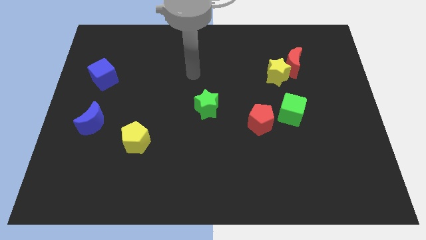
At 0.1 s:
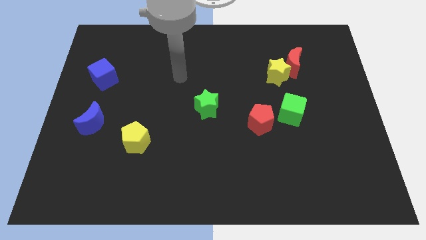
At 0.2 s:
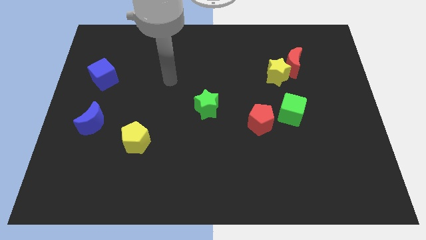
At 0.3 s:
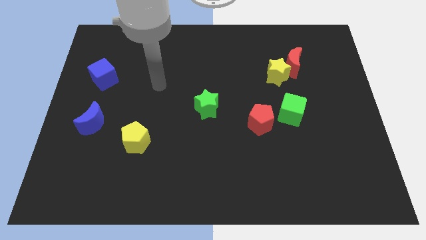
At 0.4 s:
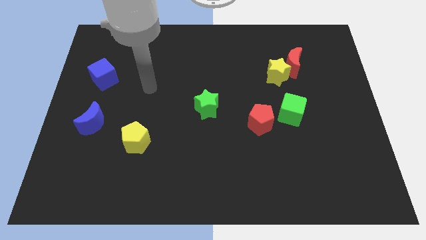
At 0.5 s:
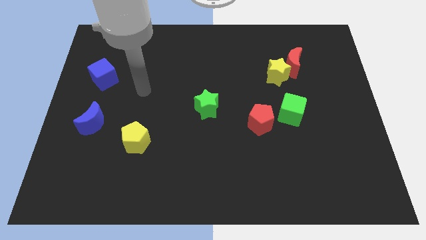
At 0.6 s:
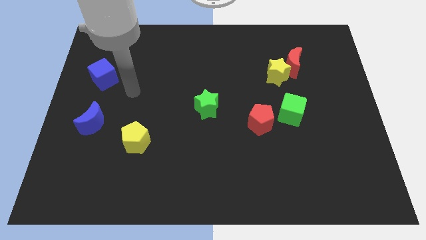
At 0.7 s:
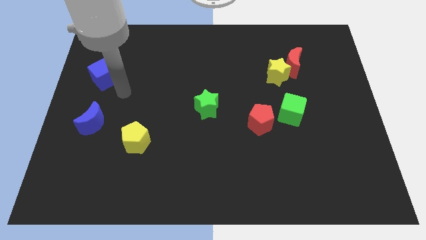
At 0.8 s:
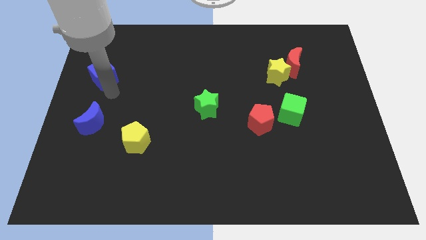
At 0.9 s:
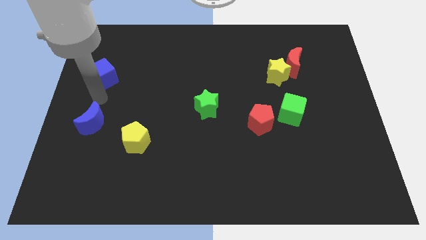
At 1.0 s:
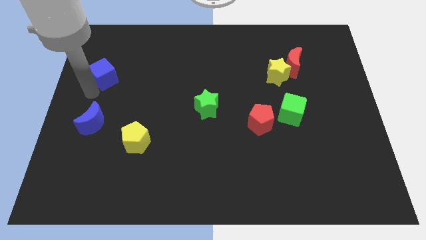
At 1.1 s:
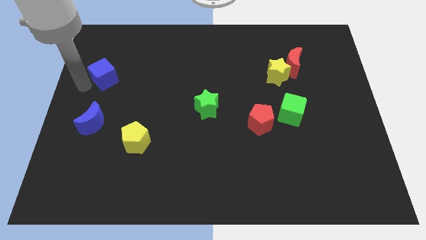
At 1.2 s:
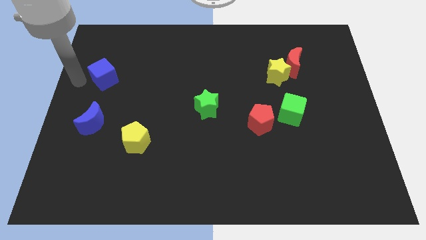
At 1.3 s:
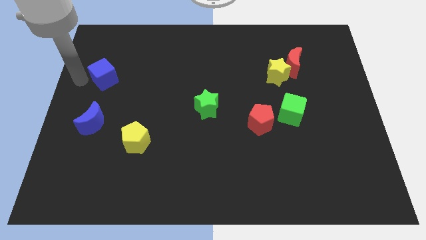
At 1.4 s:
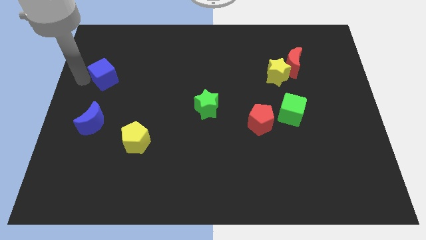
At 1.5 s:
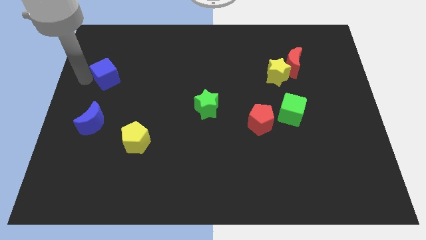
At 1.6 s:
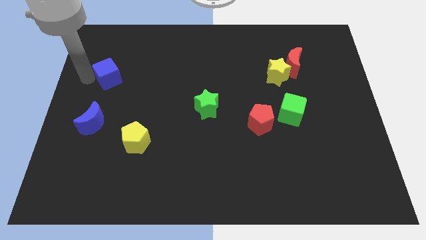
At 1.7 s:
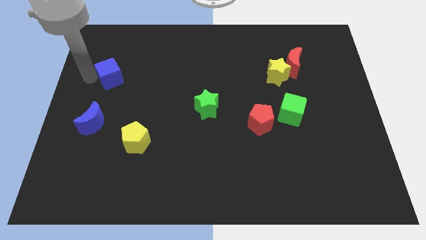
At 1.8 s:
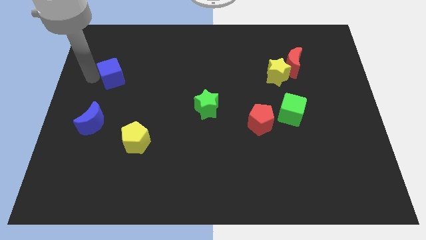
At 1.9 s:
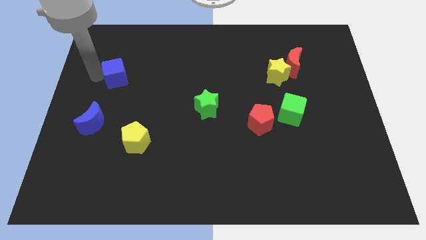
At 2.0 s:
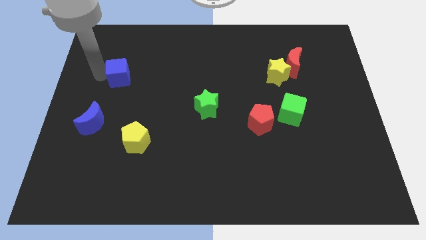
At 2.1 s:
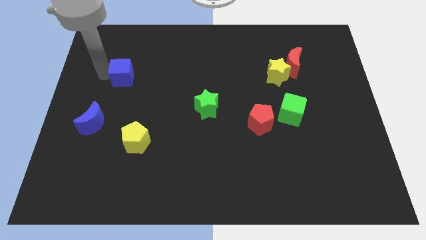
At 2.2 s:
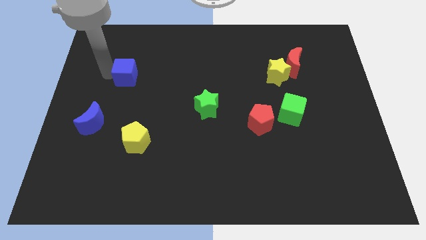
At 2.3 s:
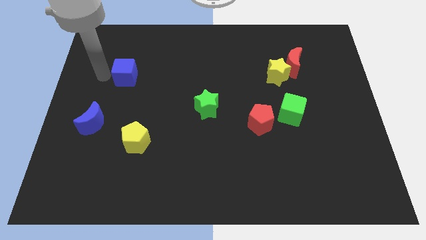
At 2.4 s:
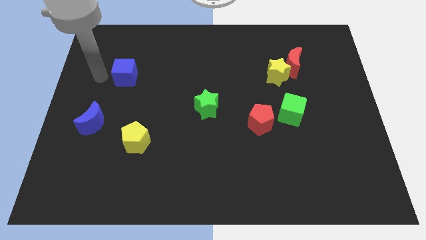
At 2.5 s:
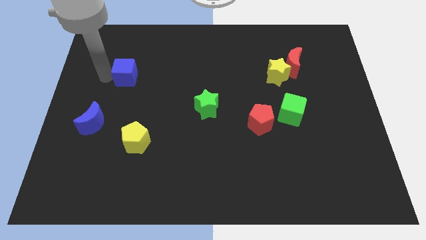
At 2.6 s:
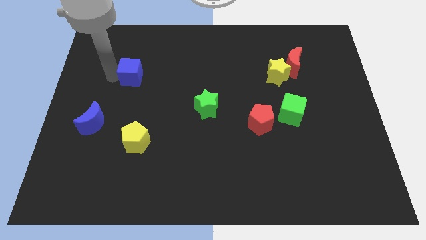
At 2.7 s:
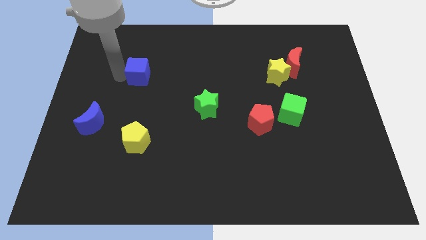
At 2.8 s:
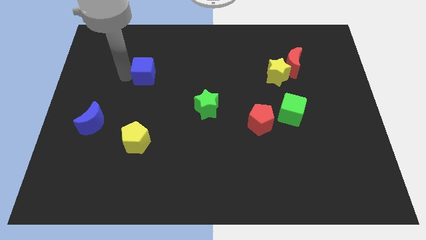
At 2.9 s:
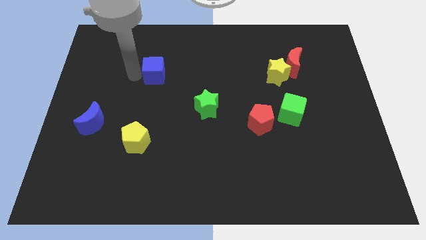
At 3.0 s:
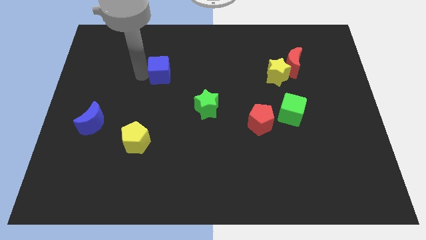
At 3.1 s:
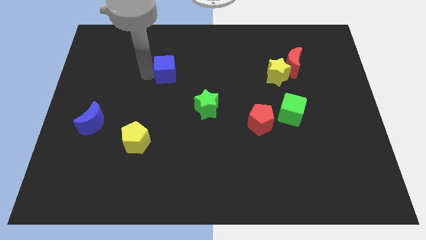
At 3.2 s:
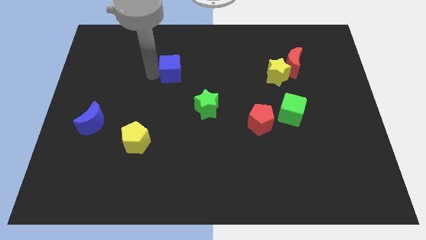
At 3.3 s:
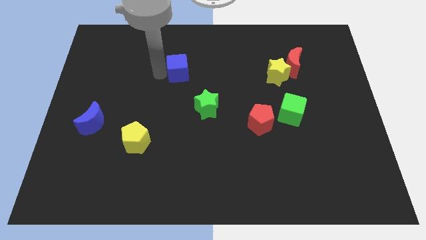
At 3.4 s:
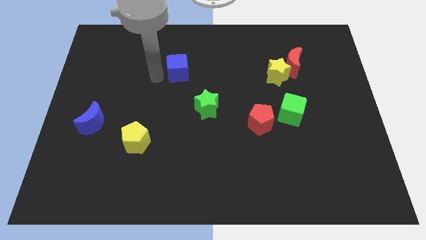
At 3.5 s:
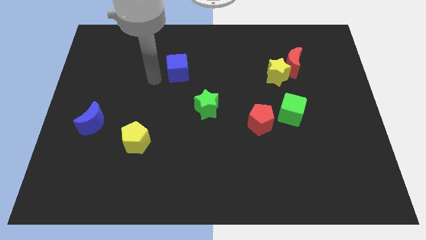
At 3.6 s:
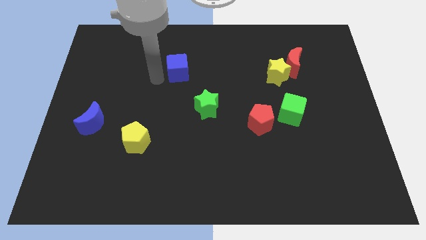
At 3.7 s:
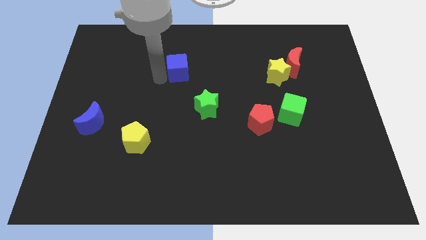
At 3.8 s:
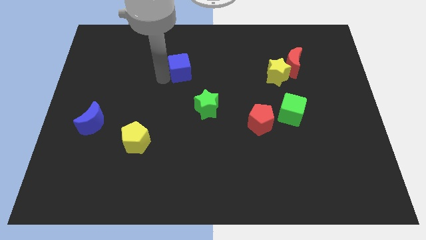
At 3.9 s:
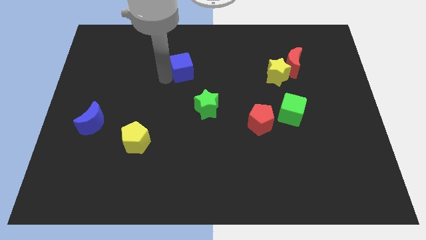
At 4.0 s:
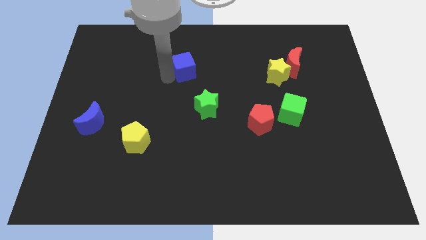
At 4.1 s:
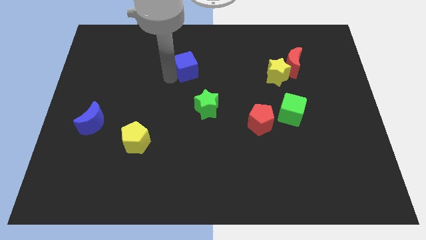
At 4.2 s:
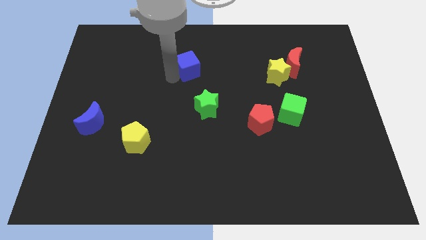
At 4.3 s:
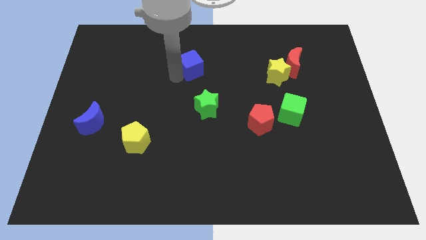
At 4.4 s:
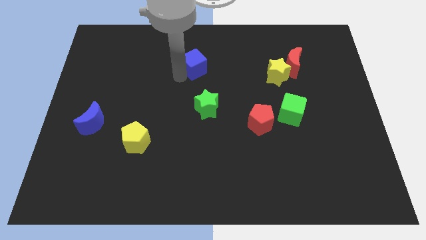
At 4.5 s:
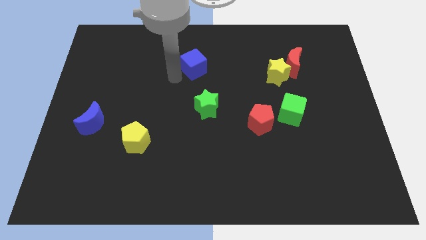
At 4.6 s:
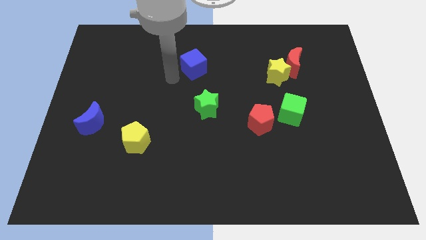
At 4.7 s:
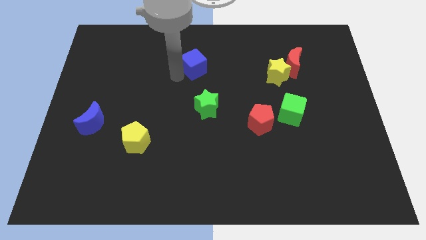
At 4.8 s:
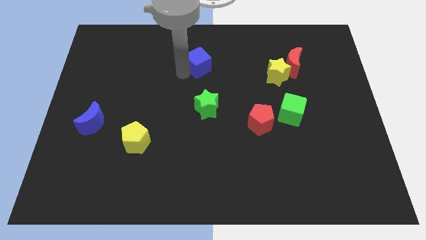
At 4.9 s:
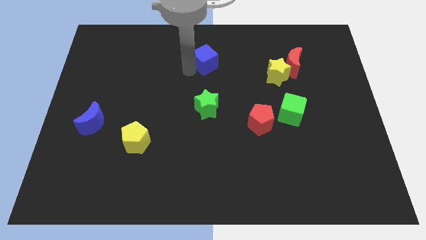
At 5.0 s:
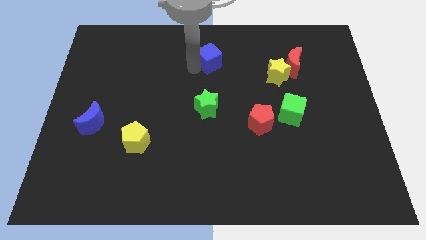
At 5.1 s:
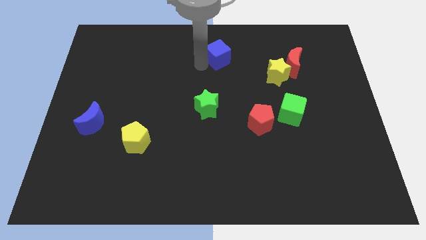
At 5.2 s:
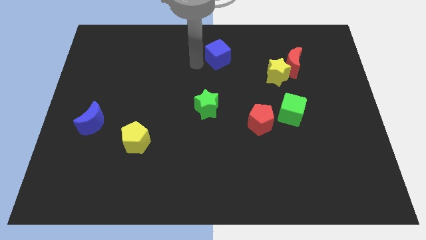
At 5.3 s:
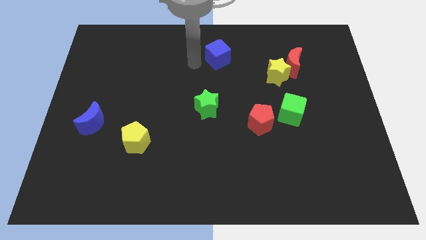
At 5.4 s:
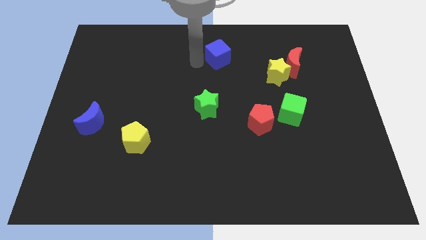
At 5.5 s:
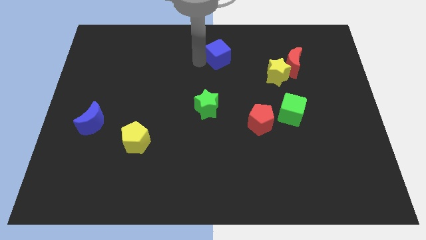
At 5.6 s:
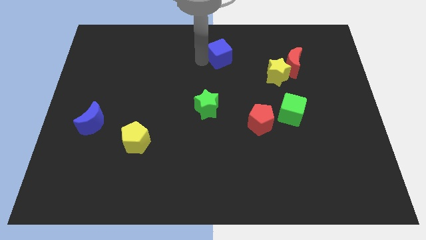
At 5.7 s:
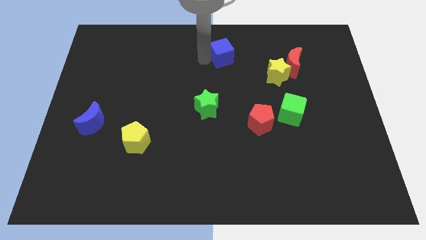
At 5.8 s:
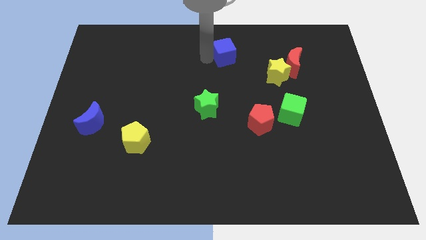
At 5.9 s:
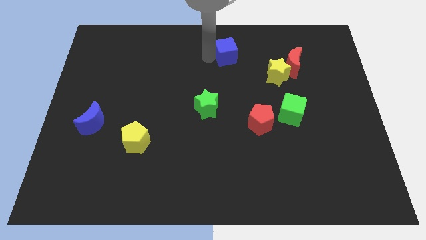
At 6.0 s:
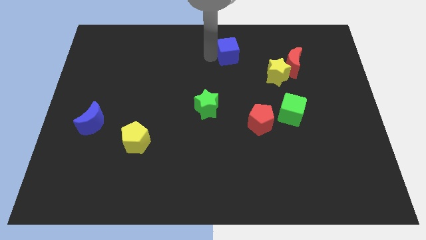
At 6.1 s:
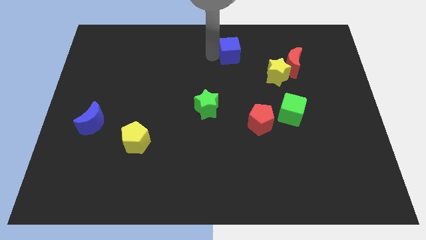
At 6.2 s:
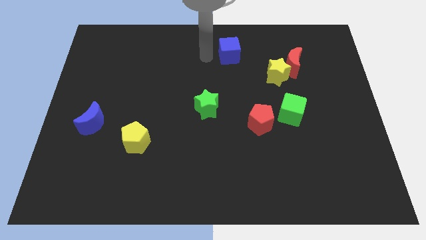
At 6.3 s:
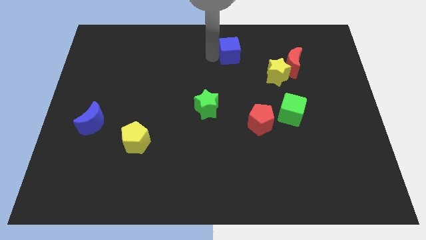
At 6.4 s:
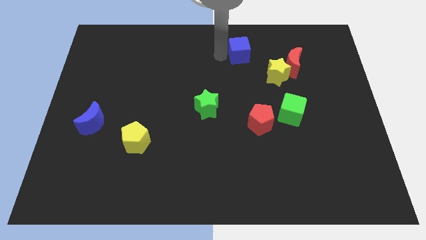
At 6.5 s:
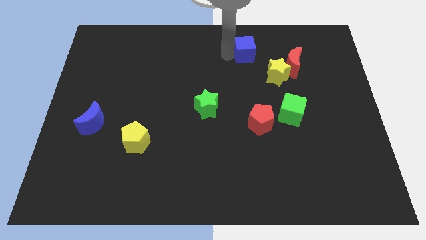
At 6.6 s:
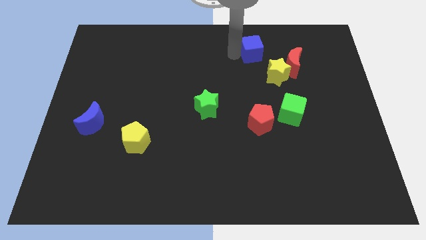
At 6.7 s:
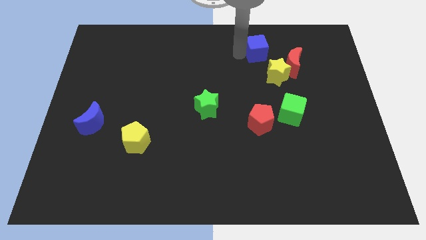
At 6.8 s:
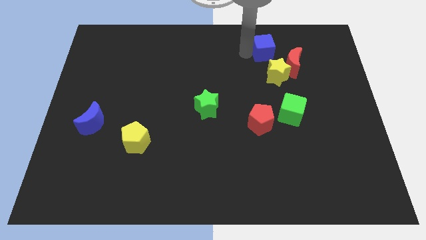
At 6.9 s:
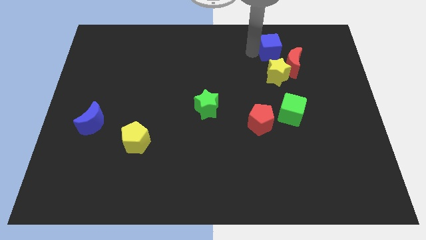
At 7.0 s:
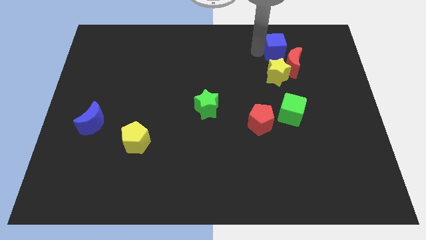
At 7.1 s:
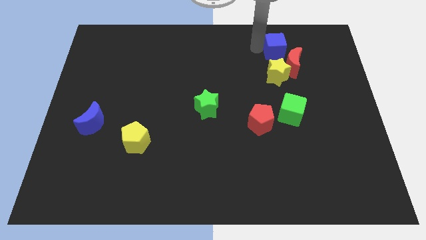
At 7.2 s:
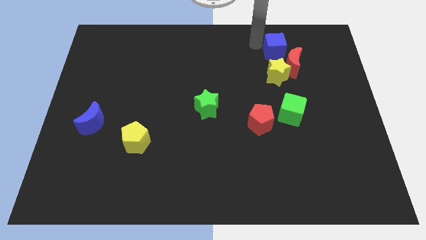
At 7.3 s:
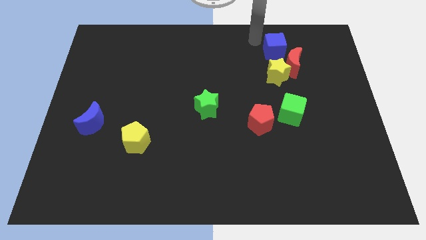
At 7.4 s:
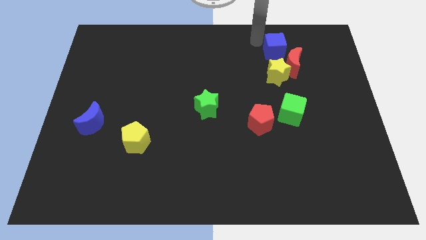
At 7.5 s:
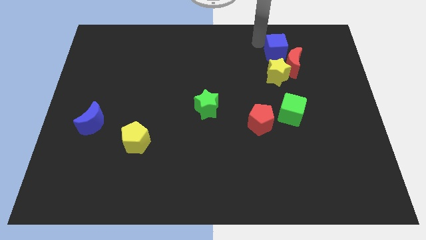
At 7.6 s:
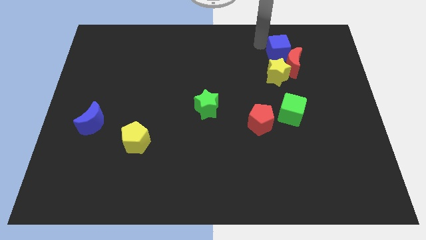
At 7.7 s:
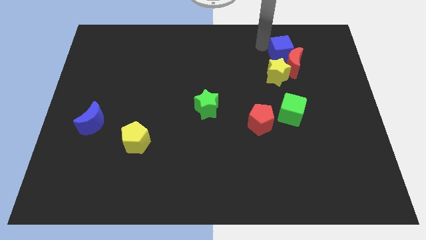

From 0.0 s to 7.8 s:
push the blue cube to the top right of the yellow star
